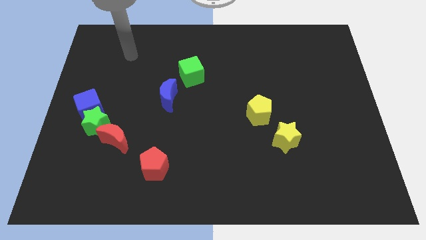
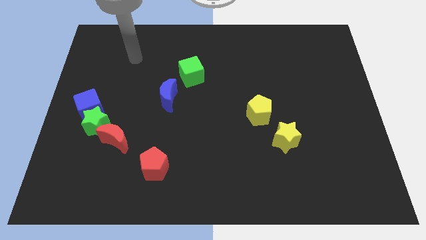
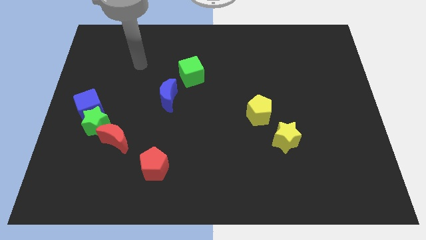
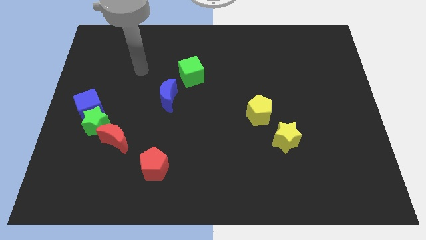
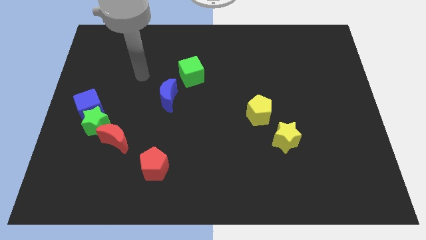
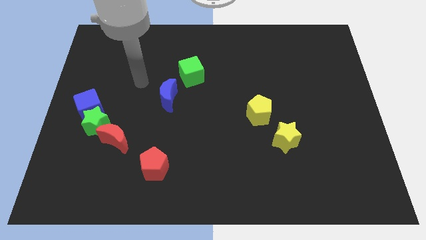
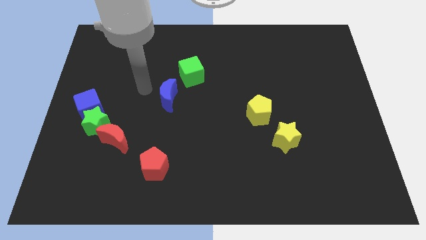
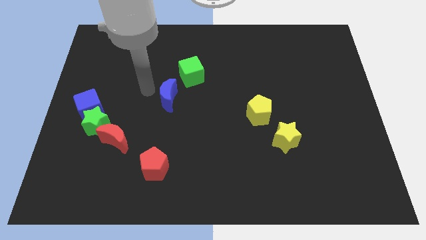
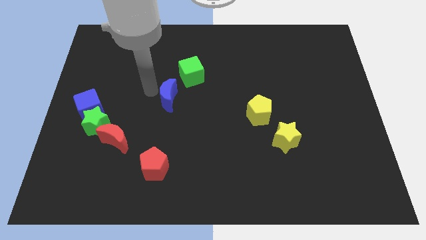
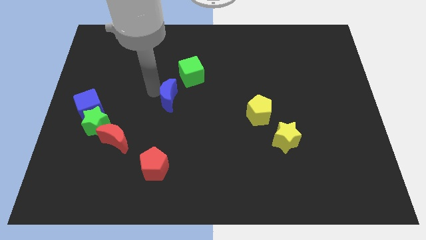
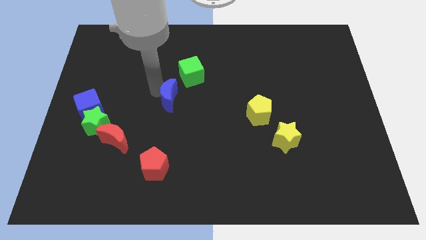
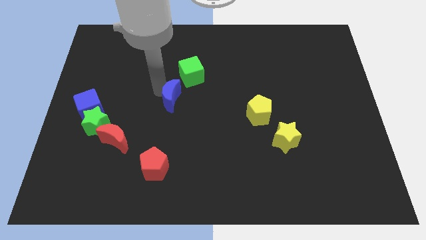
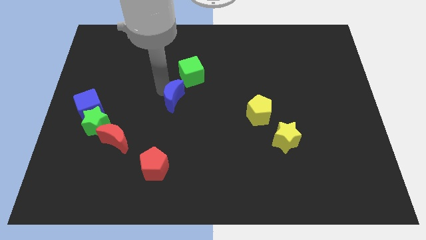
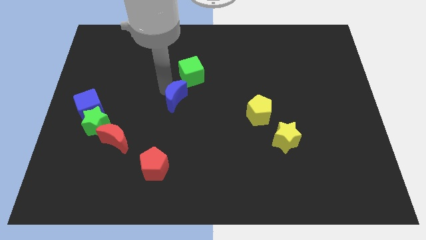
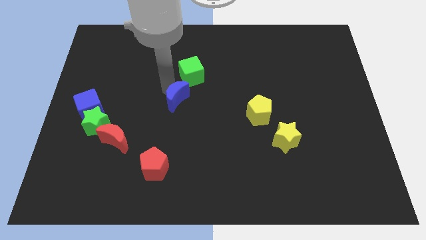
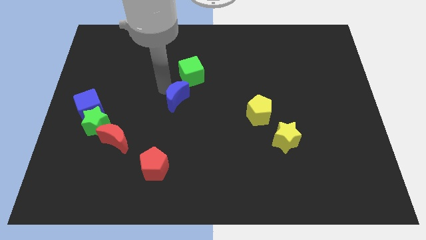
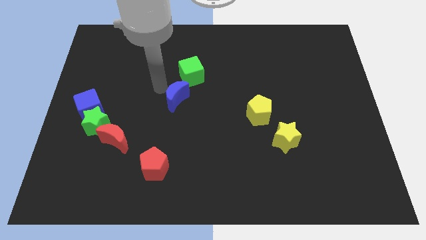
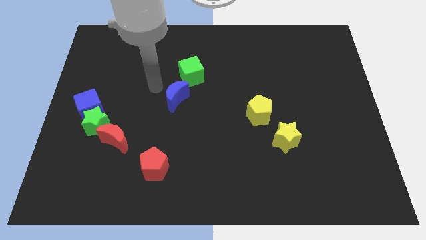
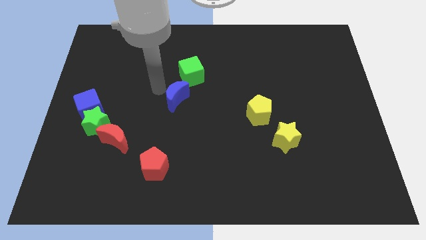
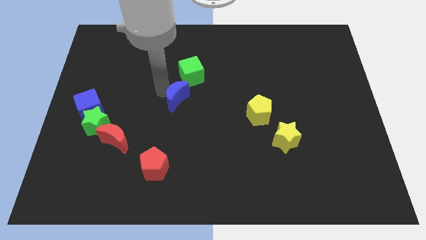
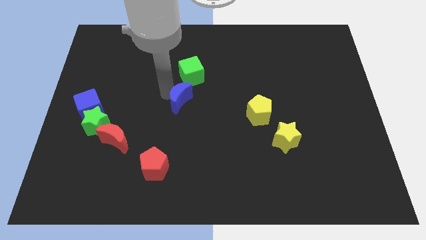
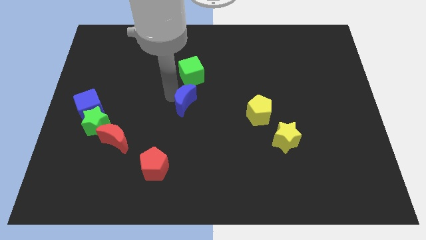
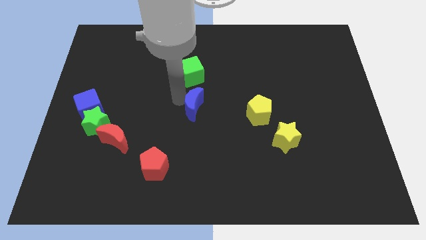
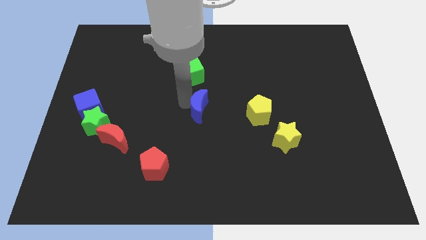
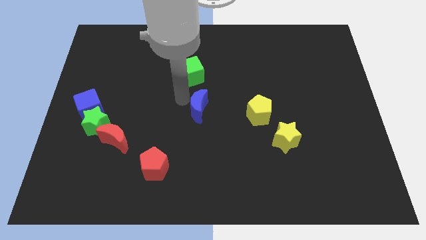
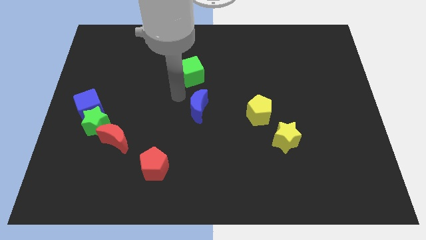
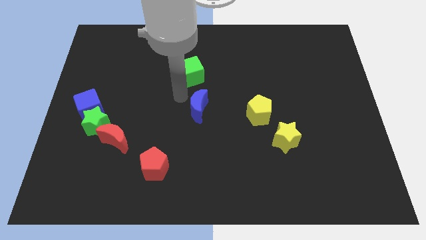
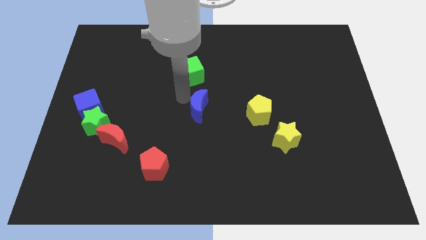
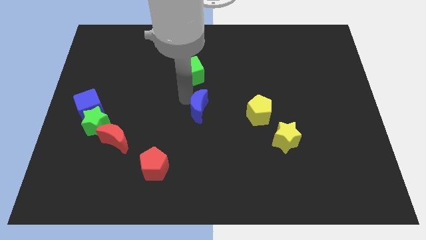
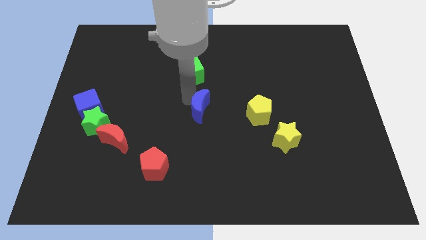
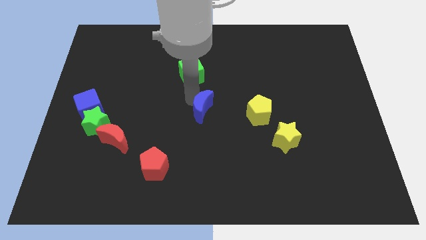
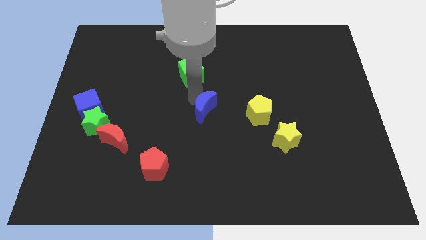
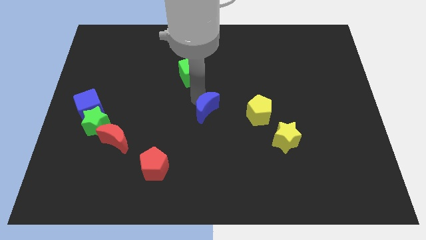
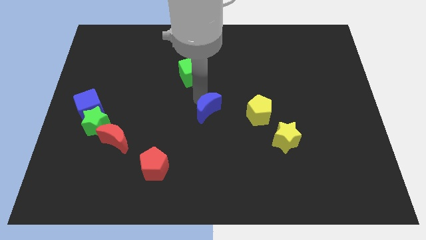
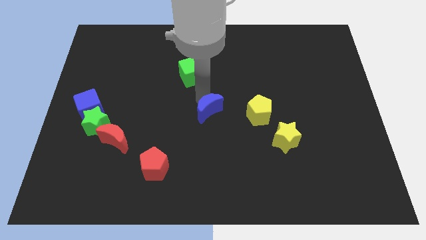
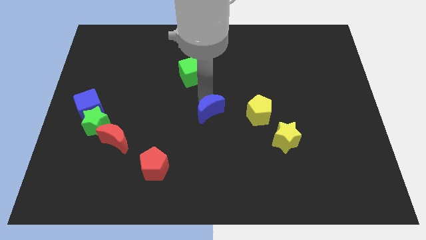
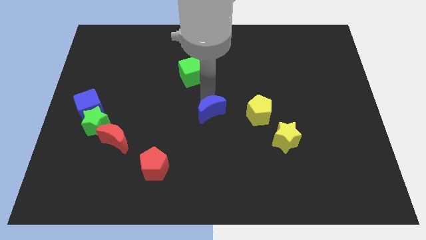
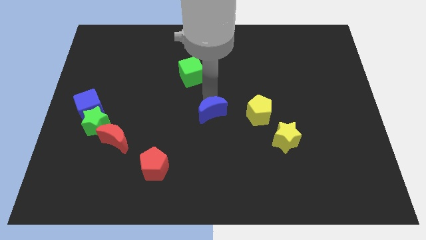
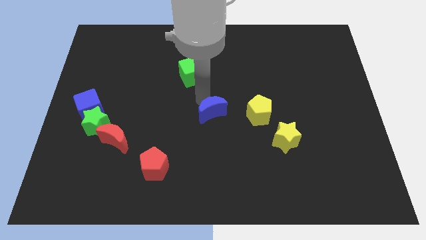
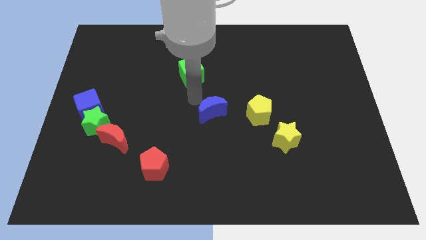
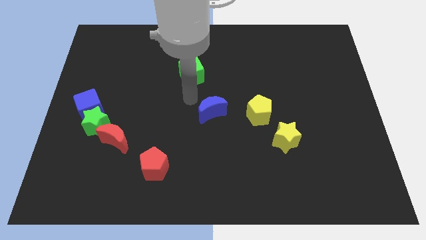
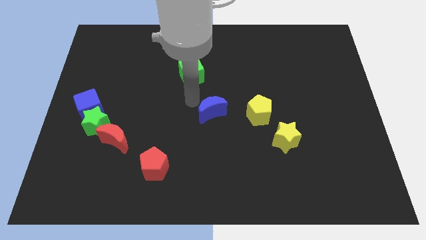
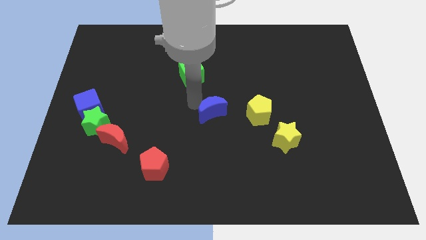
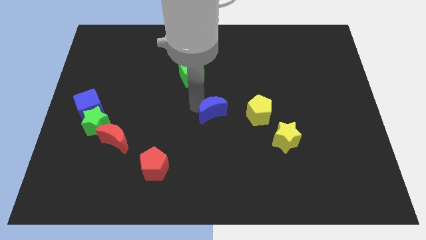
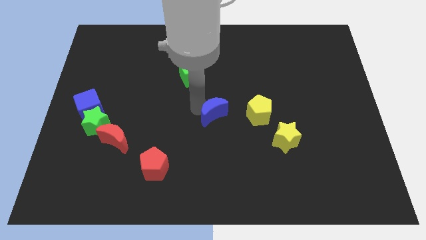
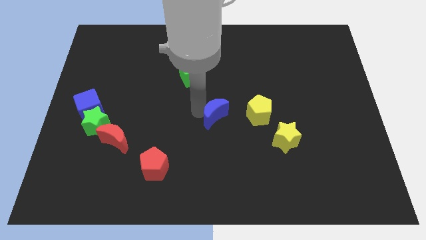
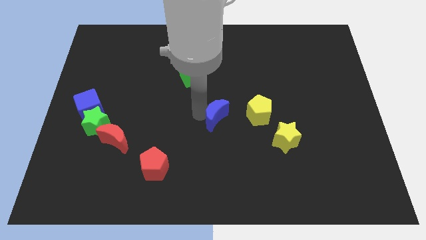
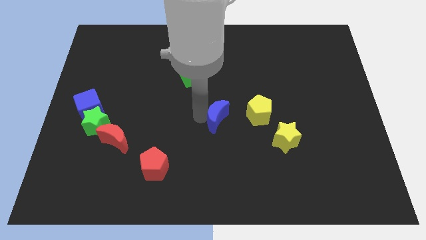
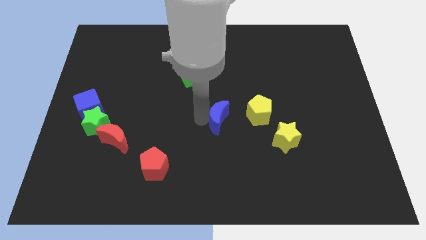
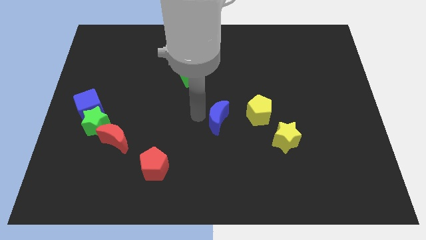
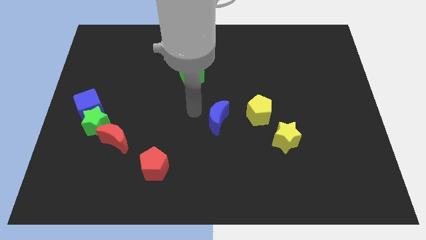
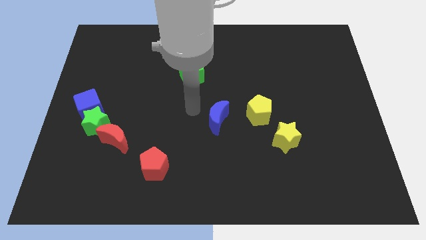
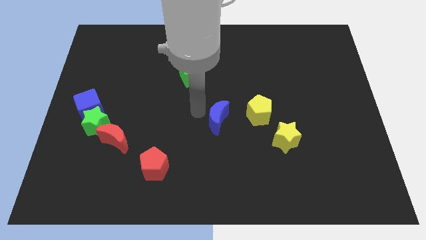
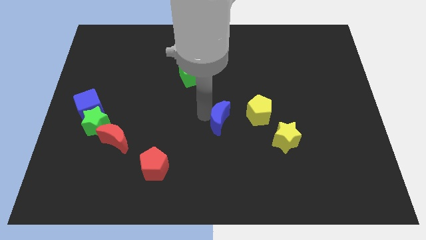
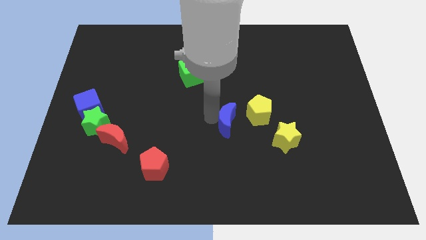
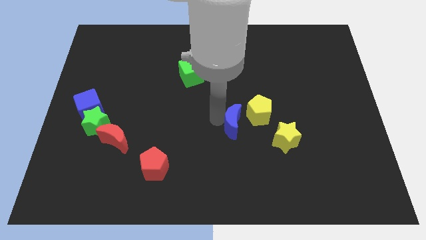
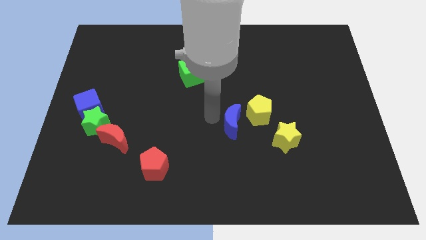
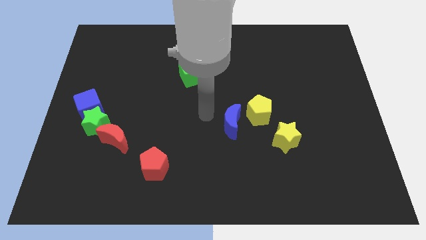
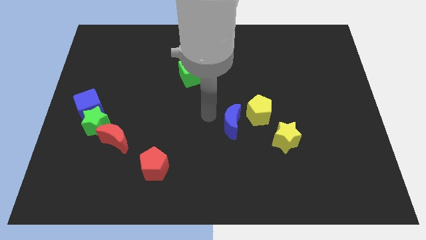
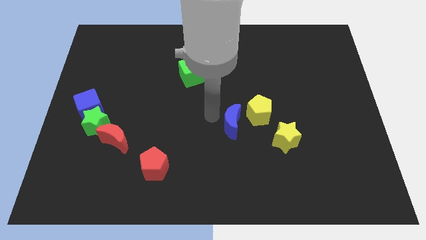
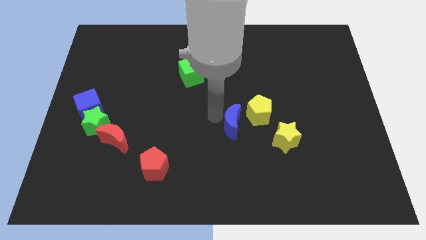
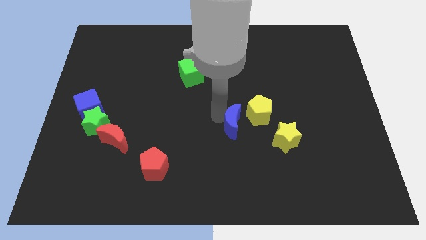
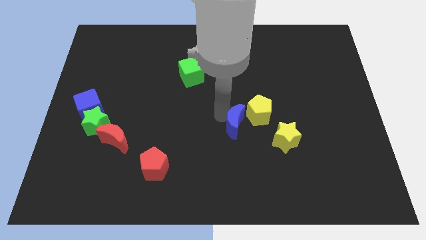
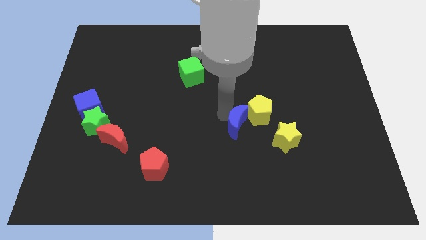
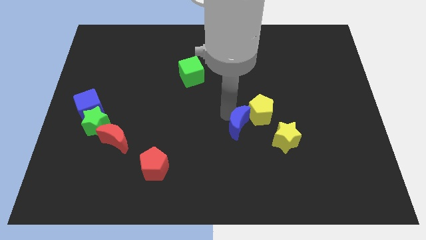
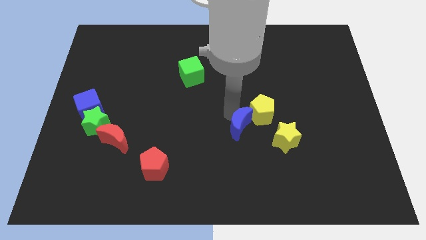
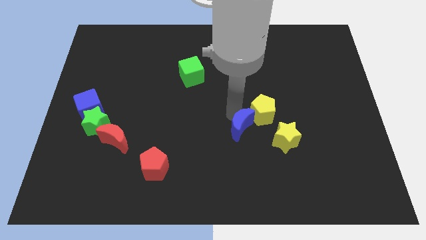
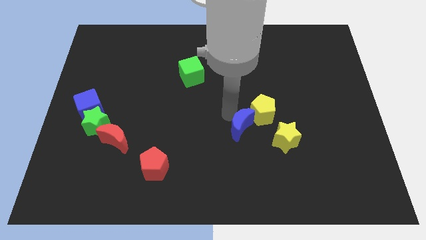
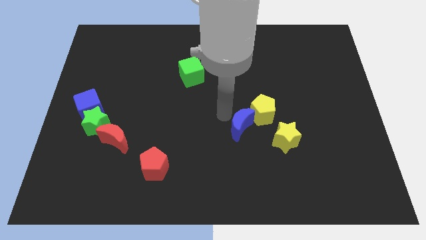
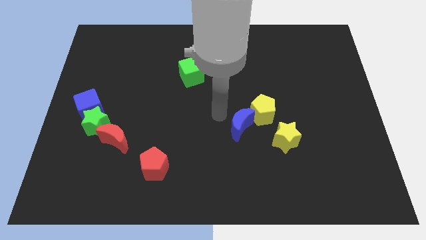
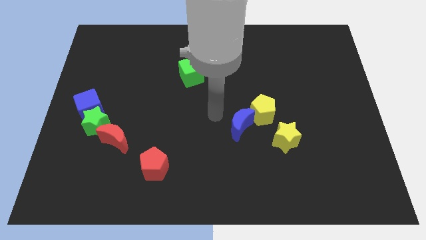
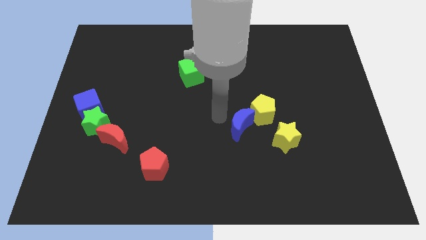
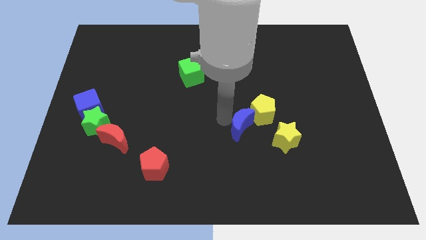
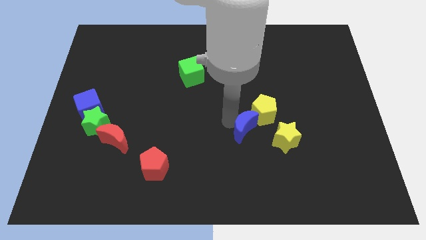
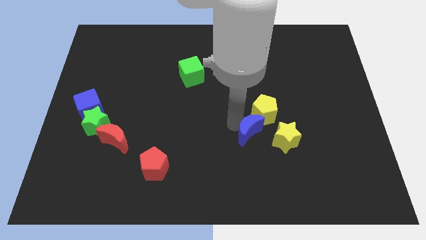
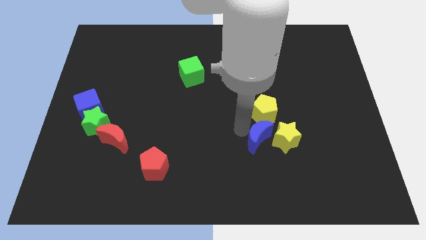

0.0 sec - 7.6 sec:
push the blue moon next to the yellow star

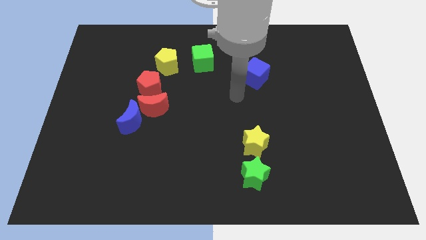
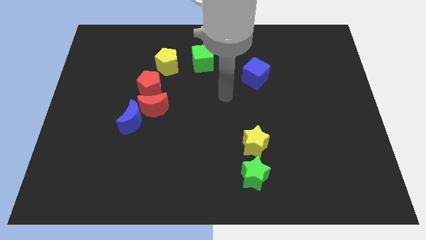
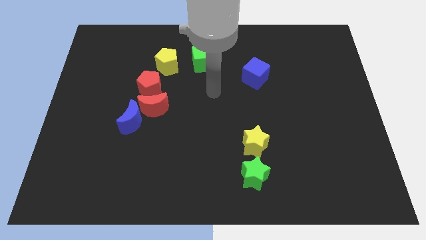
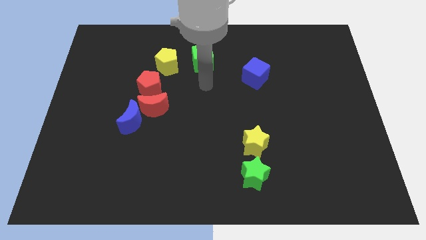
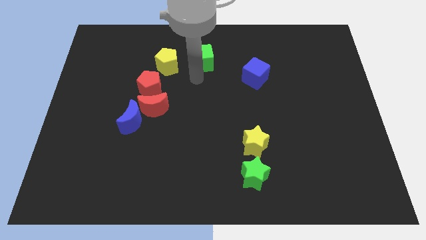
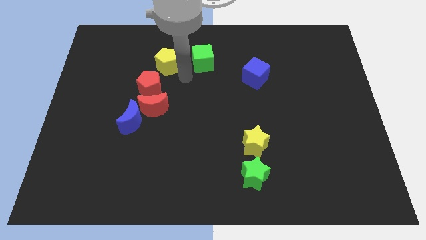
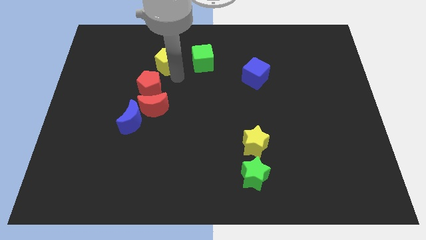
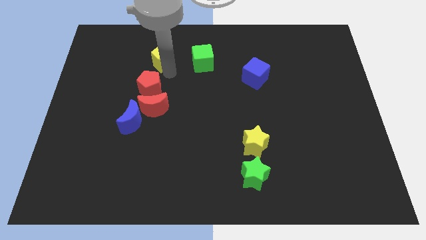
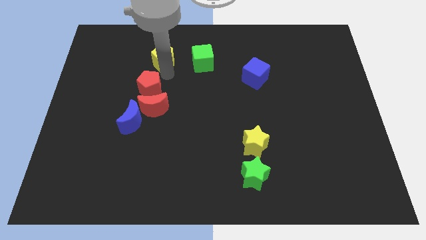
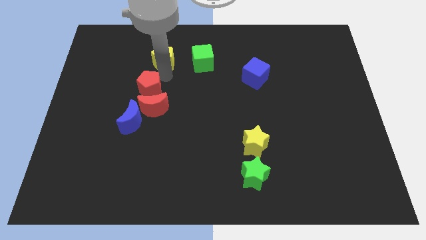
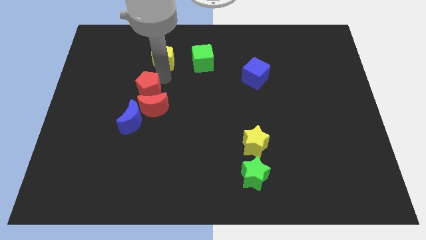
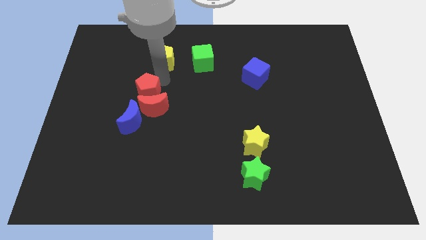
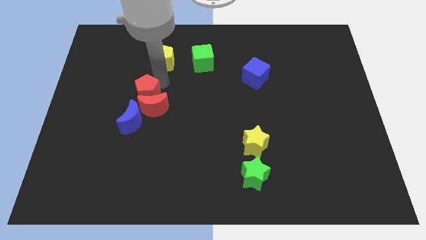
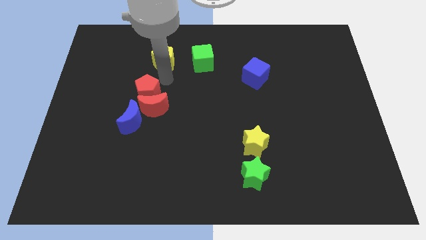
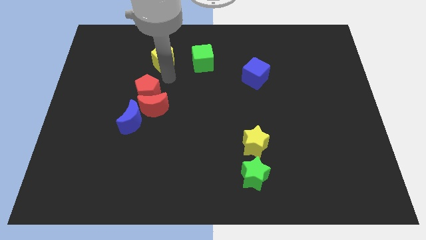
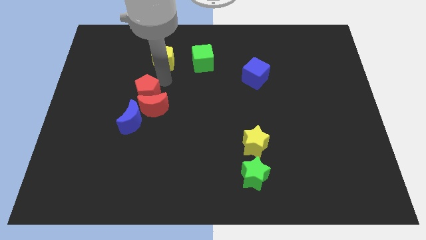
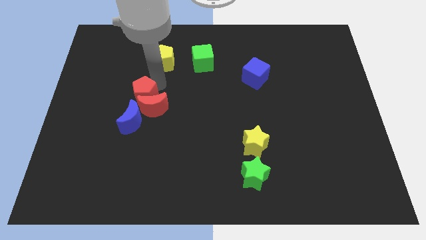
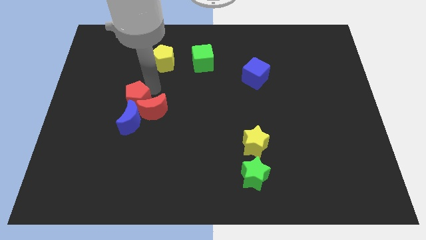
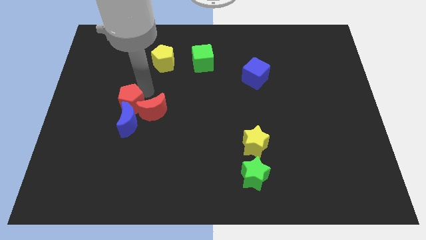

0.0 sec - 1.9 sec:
move the red pentagon close to the blue moon
